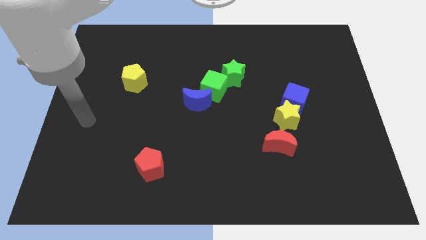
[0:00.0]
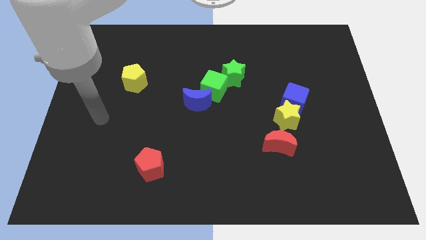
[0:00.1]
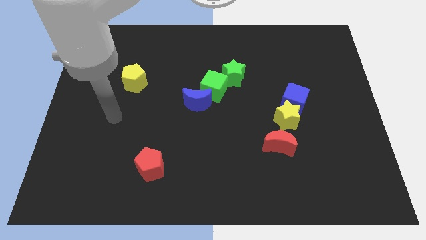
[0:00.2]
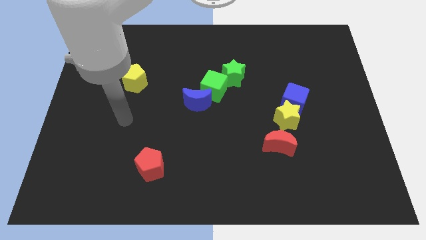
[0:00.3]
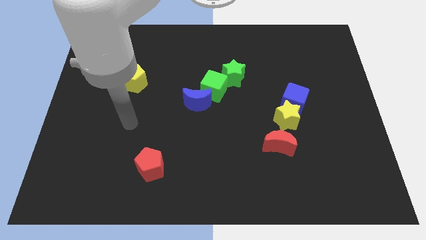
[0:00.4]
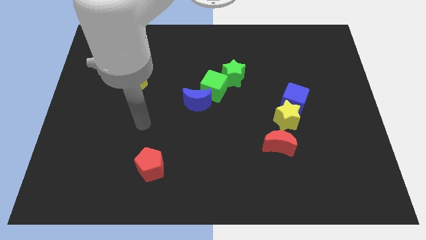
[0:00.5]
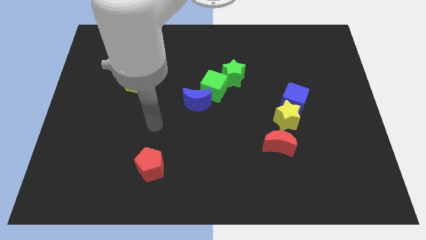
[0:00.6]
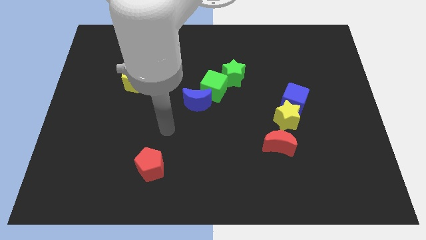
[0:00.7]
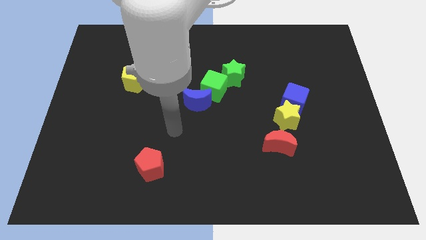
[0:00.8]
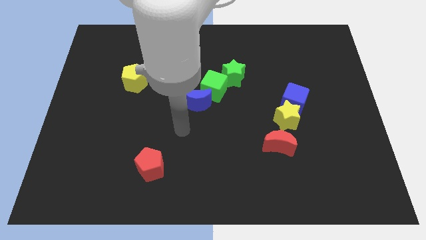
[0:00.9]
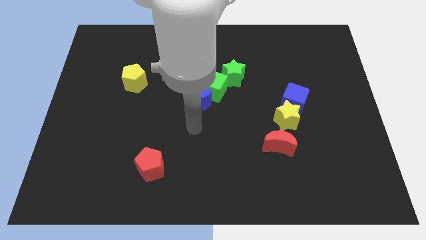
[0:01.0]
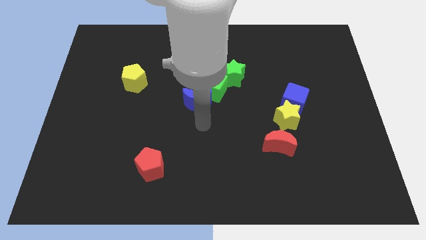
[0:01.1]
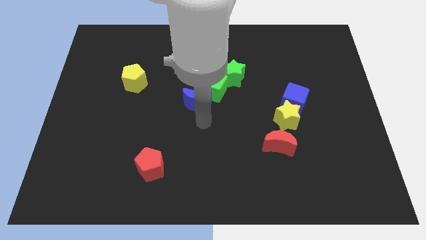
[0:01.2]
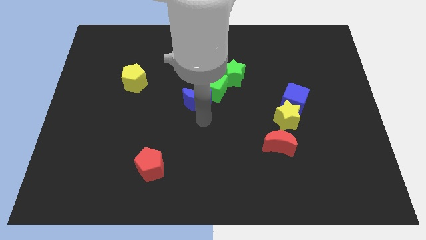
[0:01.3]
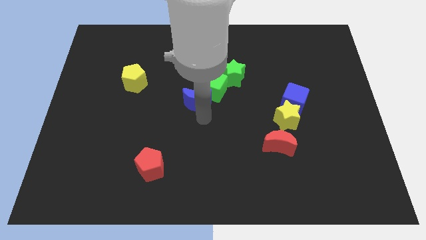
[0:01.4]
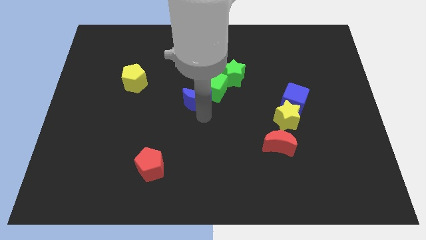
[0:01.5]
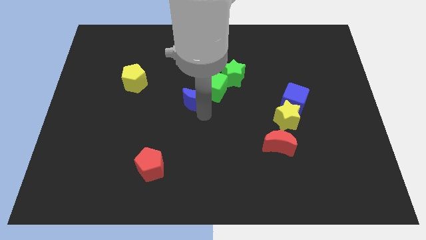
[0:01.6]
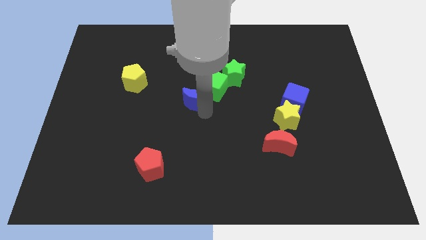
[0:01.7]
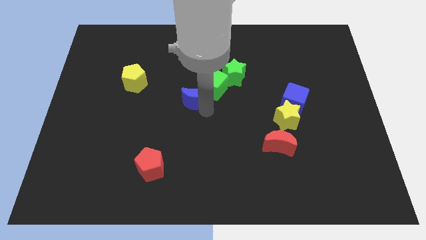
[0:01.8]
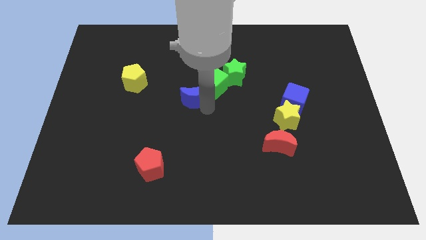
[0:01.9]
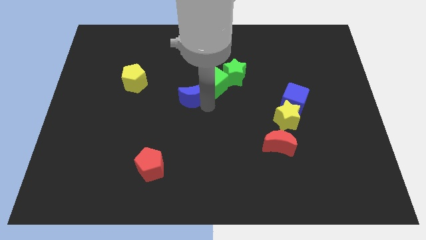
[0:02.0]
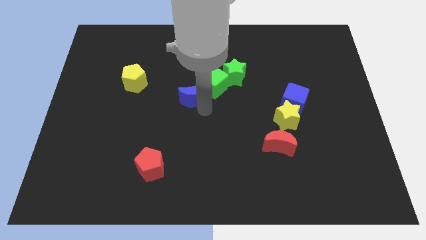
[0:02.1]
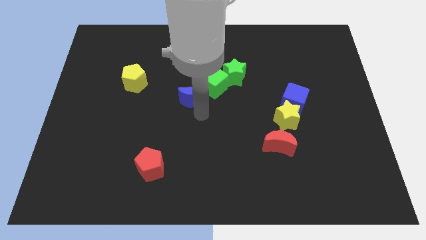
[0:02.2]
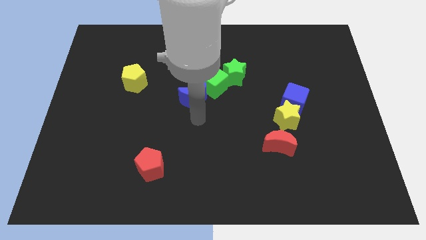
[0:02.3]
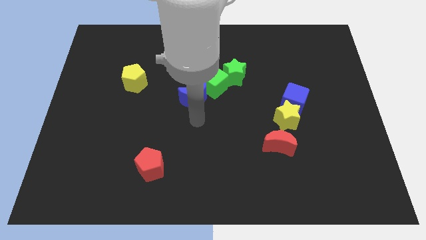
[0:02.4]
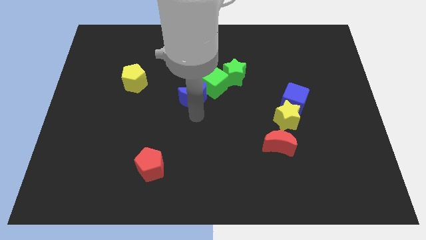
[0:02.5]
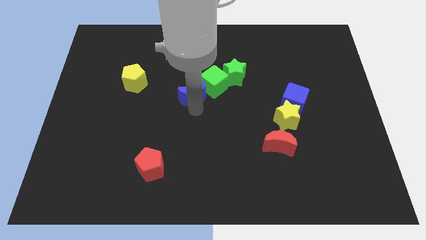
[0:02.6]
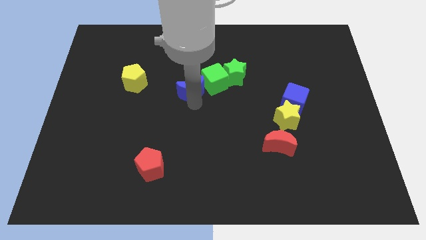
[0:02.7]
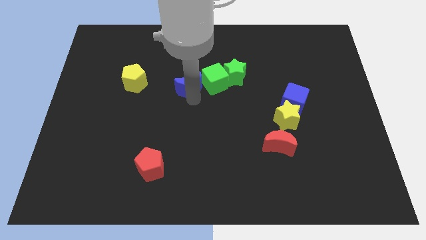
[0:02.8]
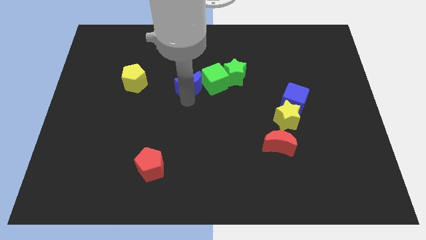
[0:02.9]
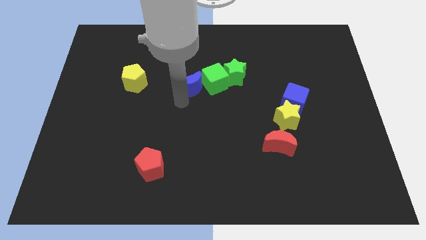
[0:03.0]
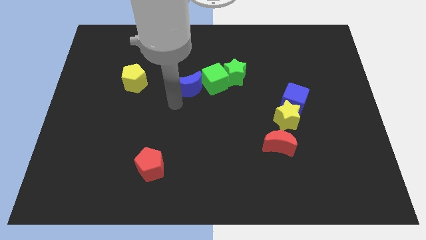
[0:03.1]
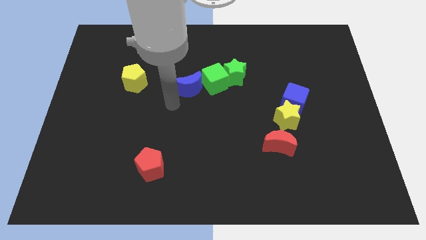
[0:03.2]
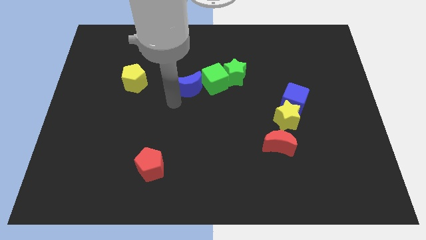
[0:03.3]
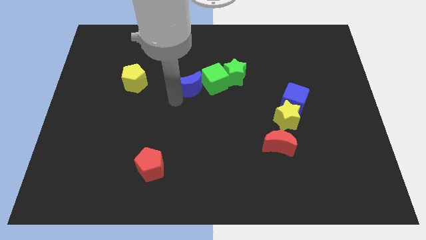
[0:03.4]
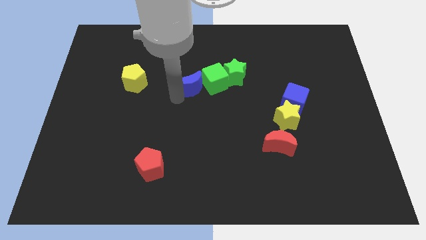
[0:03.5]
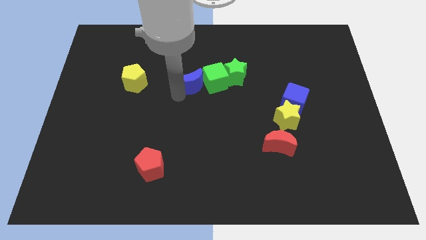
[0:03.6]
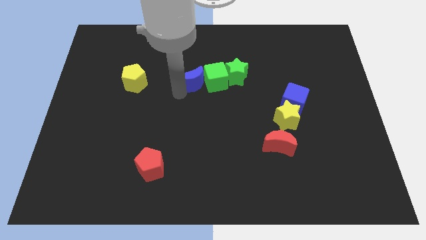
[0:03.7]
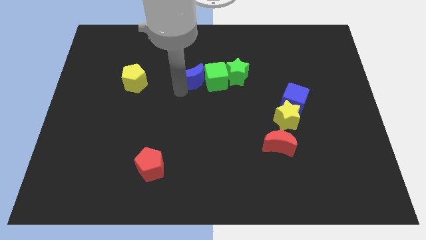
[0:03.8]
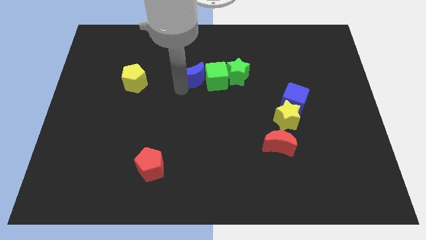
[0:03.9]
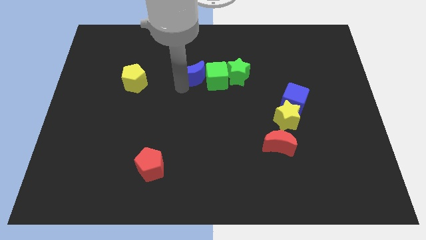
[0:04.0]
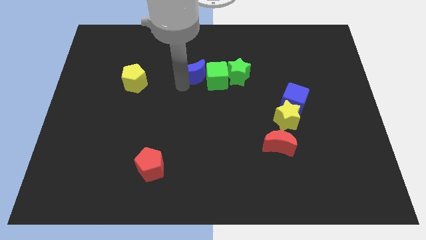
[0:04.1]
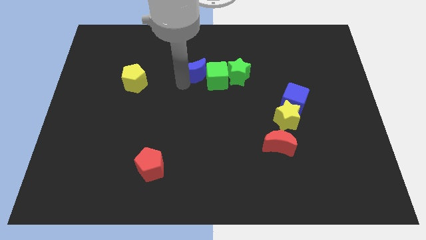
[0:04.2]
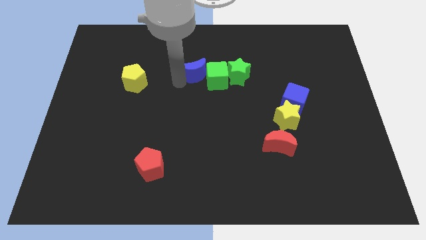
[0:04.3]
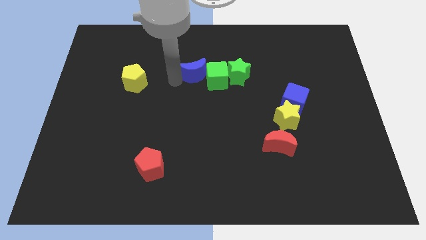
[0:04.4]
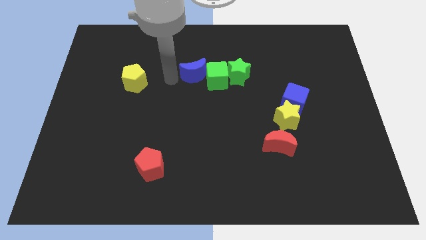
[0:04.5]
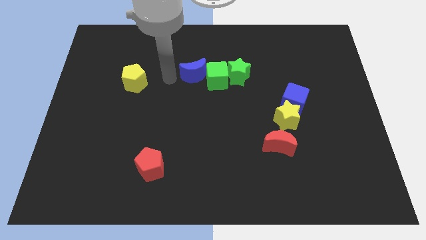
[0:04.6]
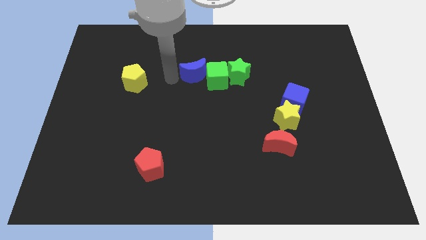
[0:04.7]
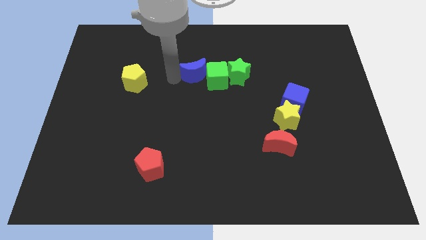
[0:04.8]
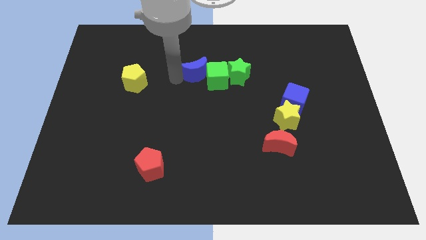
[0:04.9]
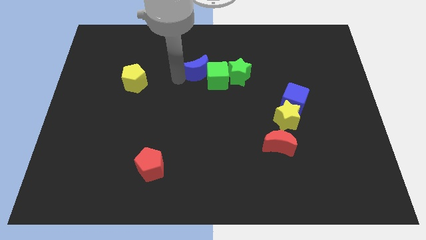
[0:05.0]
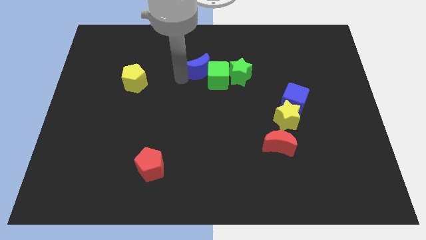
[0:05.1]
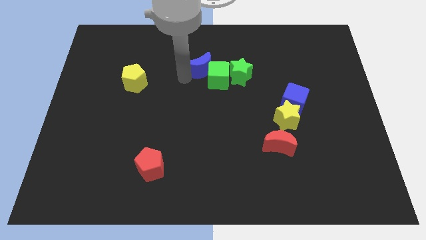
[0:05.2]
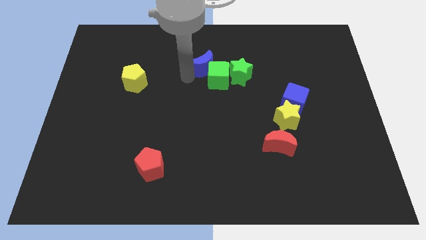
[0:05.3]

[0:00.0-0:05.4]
push the blue moon a bit up and to the right diagonally

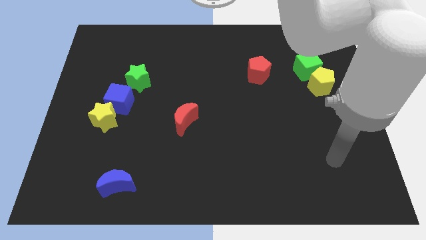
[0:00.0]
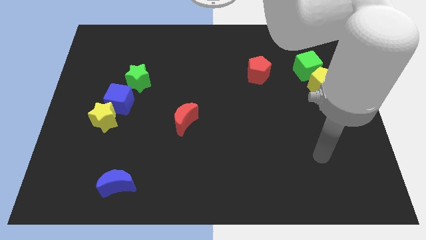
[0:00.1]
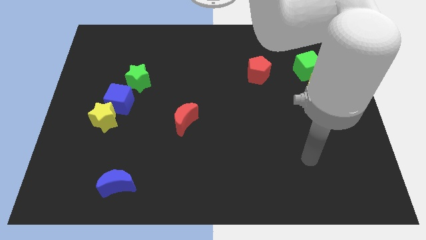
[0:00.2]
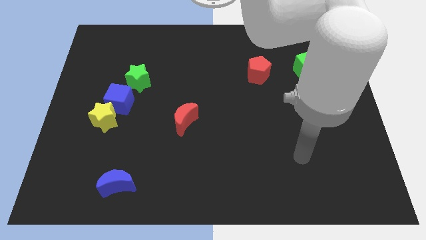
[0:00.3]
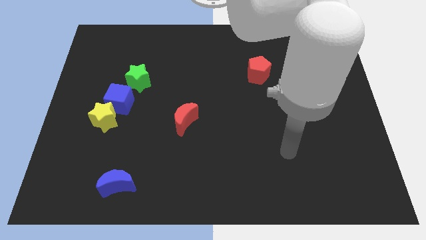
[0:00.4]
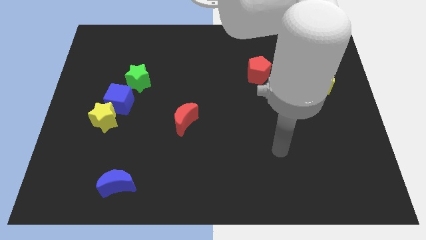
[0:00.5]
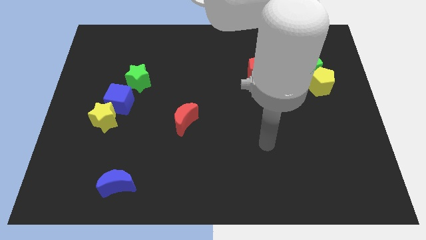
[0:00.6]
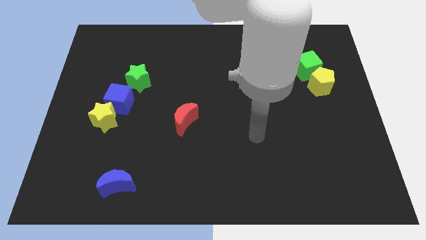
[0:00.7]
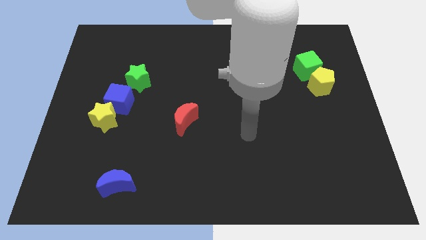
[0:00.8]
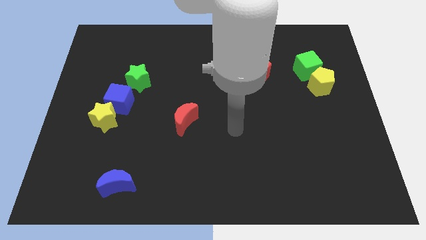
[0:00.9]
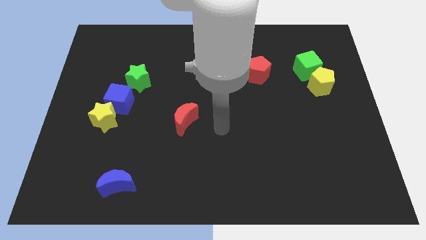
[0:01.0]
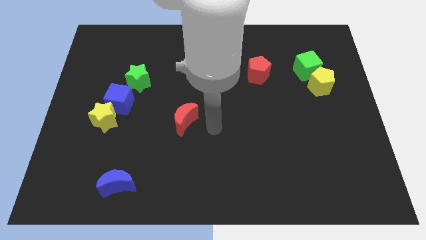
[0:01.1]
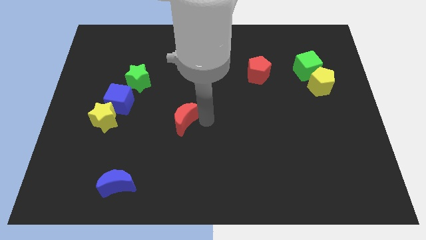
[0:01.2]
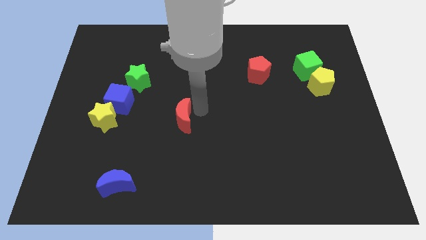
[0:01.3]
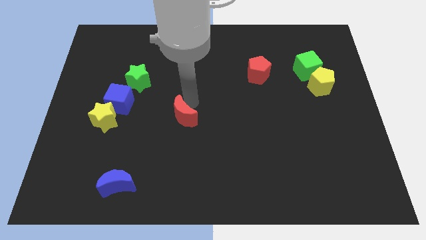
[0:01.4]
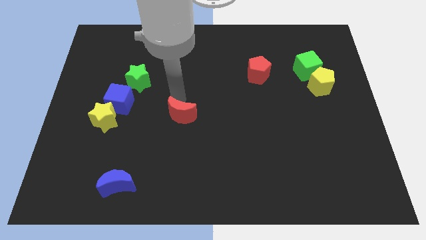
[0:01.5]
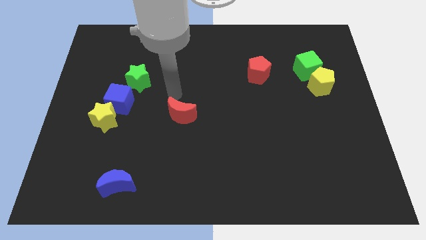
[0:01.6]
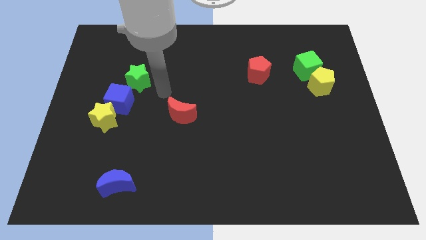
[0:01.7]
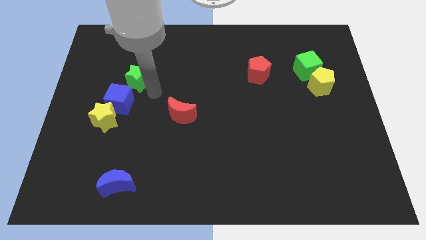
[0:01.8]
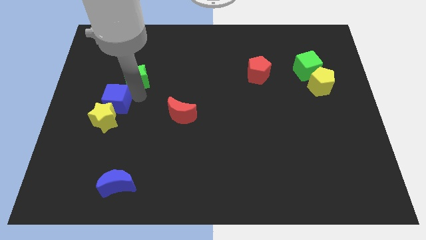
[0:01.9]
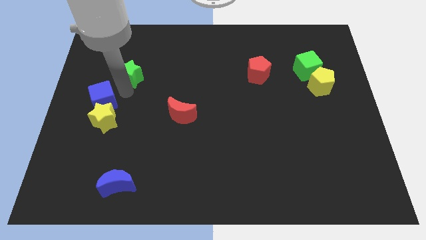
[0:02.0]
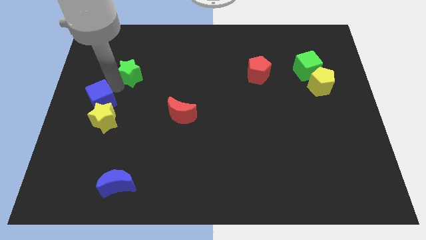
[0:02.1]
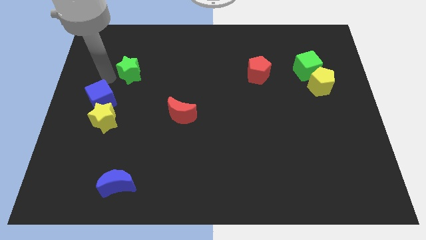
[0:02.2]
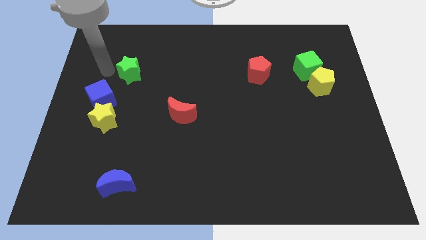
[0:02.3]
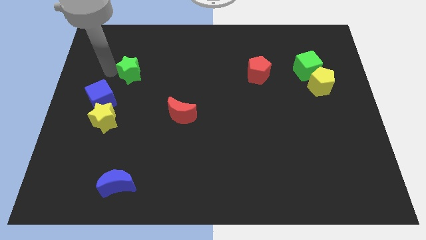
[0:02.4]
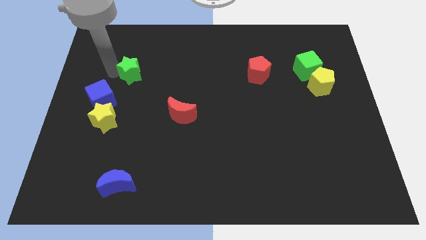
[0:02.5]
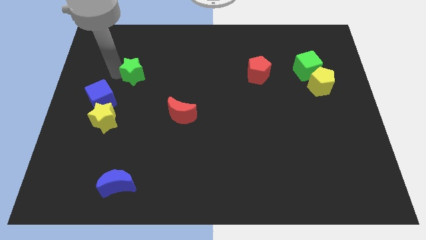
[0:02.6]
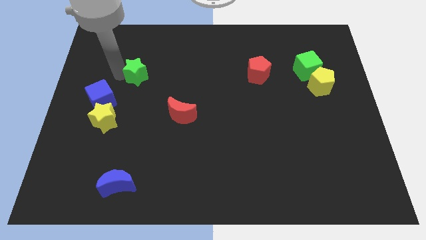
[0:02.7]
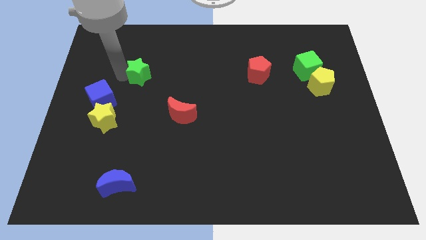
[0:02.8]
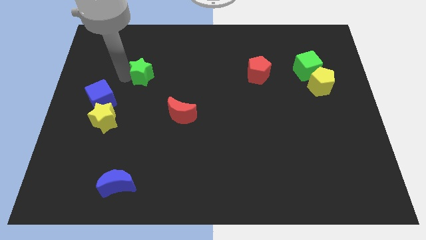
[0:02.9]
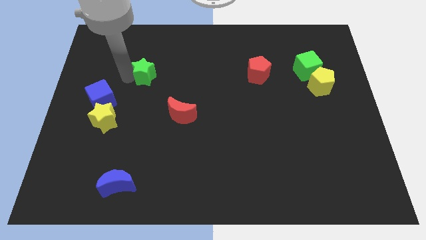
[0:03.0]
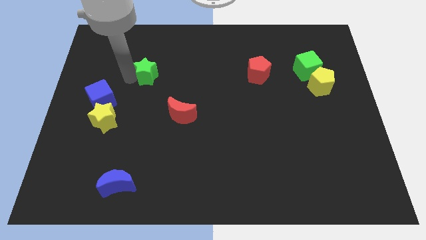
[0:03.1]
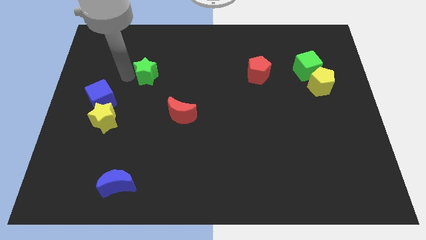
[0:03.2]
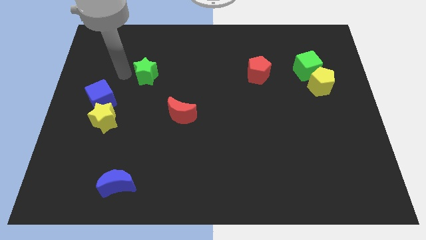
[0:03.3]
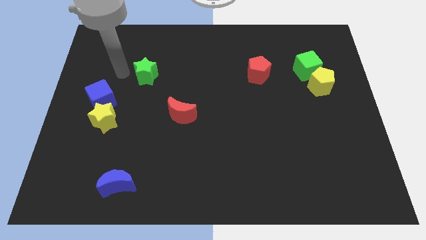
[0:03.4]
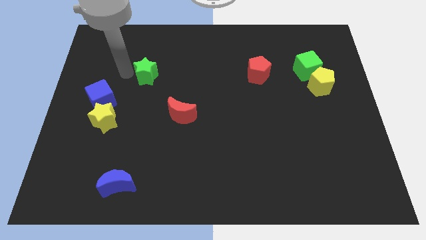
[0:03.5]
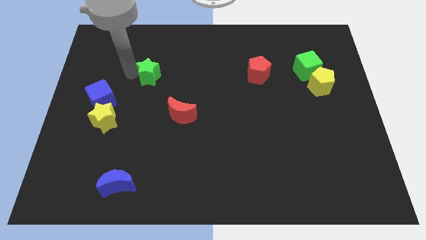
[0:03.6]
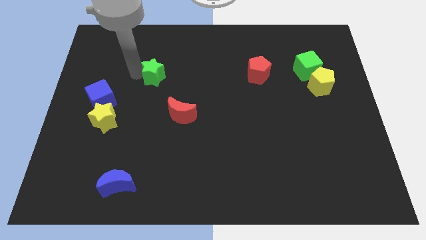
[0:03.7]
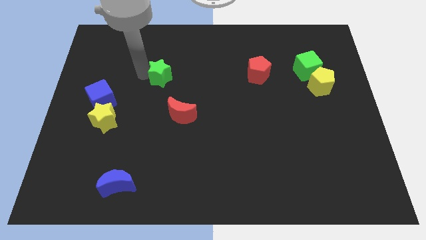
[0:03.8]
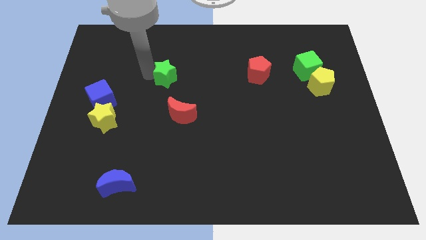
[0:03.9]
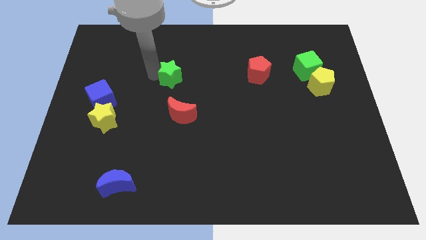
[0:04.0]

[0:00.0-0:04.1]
push the green star to the right a bit
